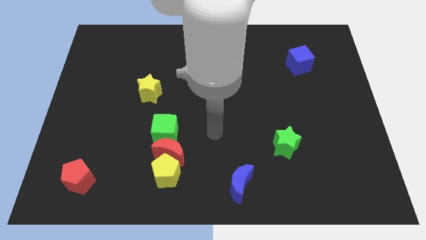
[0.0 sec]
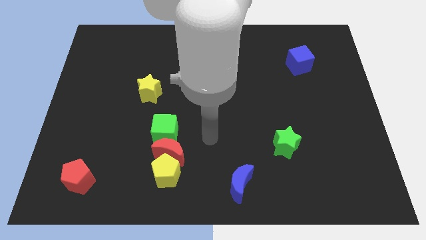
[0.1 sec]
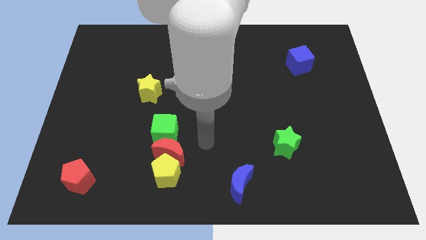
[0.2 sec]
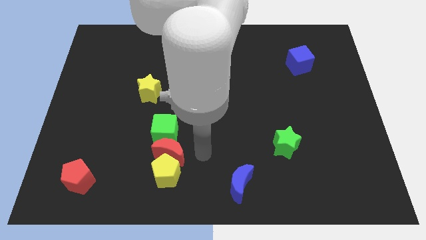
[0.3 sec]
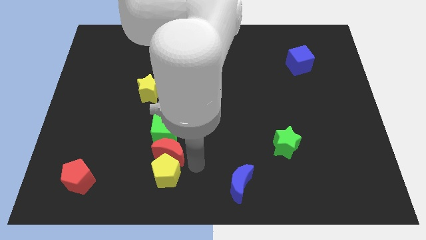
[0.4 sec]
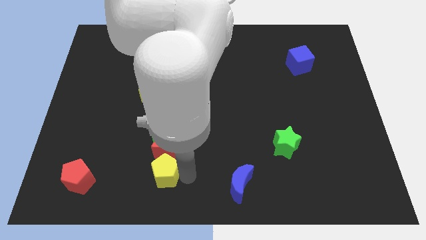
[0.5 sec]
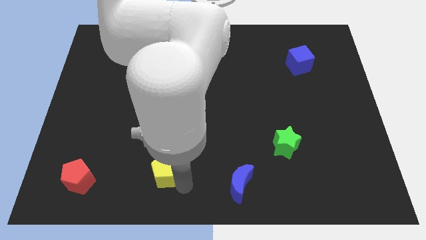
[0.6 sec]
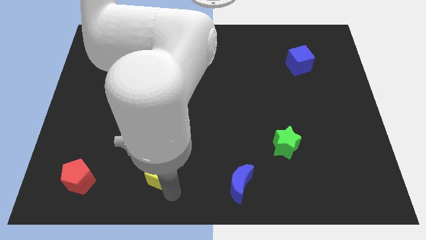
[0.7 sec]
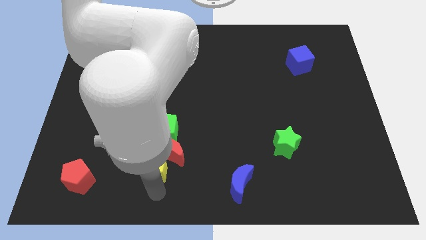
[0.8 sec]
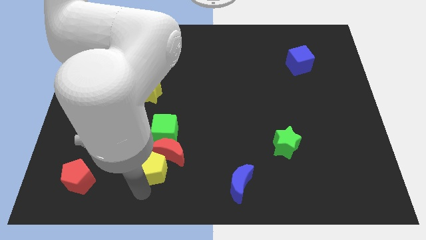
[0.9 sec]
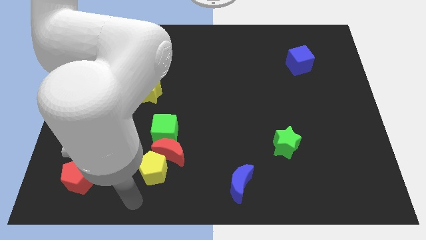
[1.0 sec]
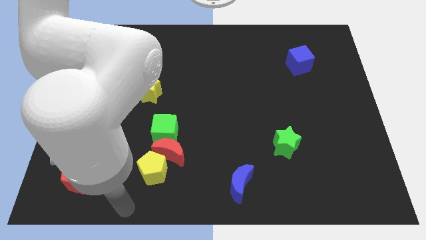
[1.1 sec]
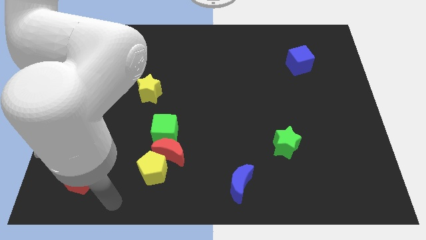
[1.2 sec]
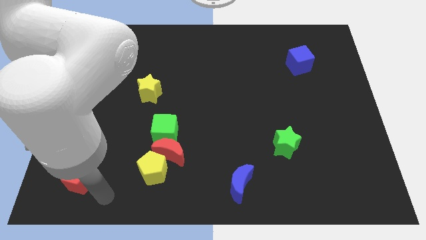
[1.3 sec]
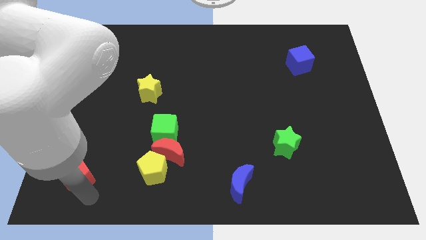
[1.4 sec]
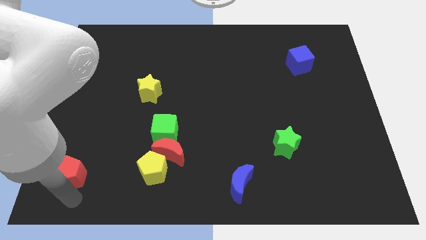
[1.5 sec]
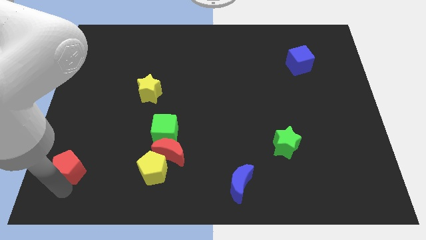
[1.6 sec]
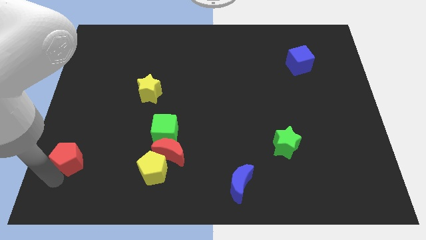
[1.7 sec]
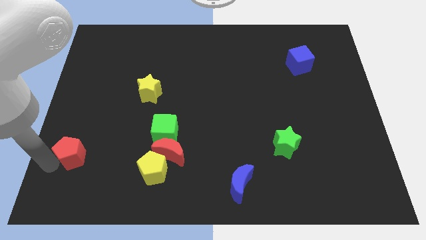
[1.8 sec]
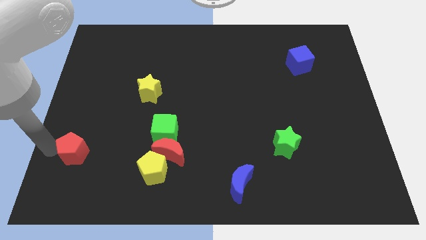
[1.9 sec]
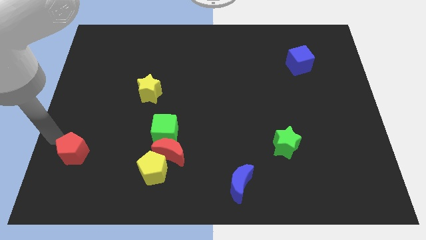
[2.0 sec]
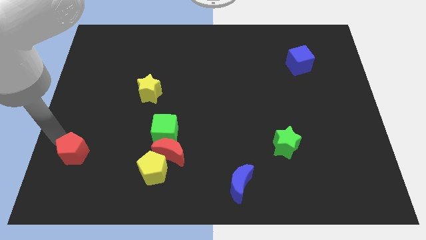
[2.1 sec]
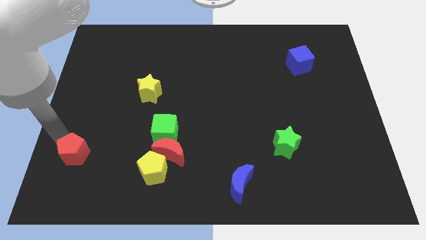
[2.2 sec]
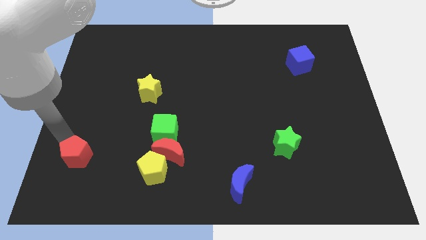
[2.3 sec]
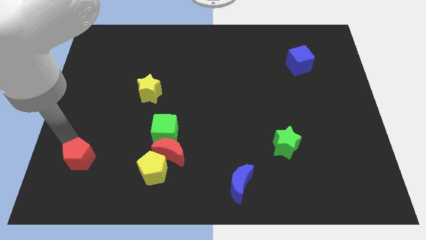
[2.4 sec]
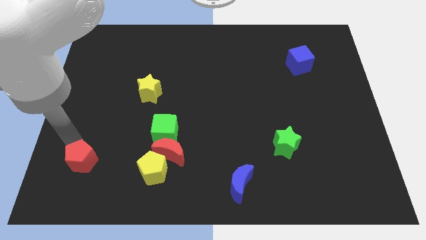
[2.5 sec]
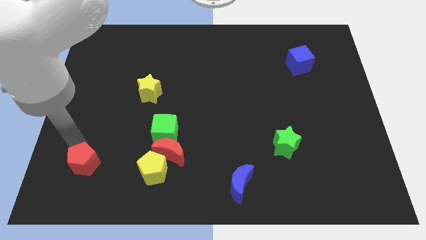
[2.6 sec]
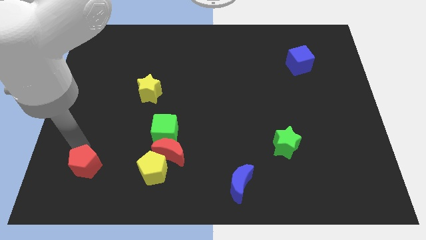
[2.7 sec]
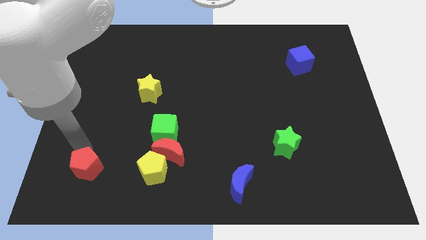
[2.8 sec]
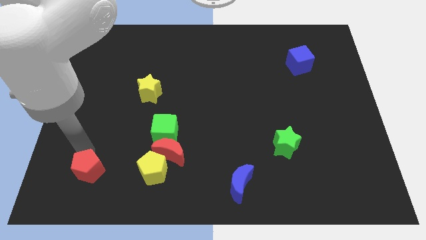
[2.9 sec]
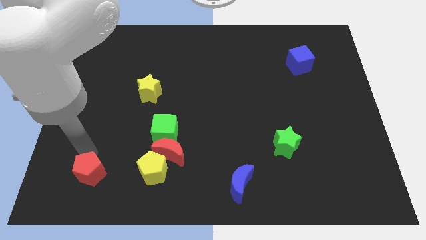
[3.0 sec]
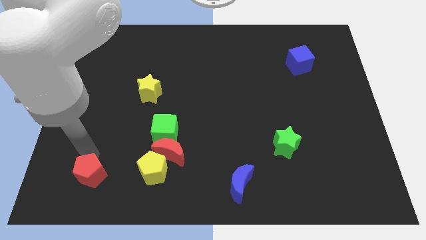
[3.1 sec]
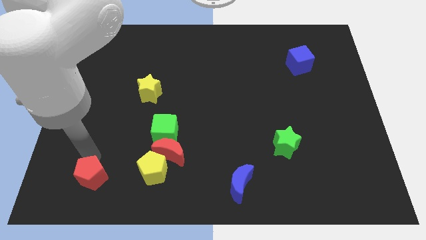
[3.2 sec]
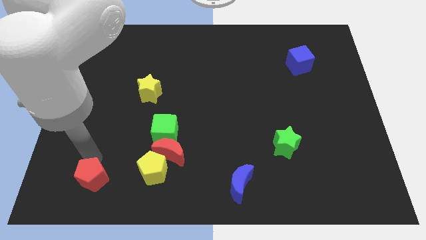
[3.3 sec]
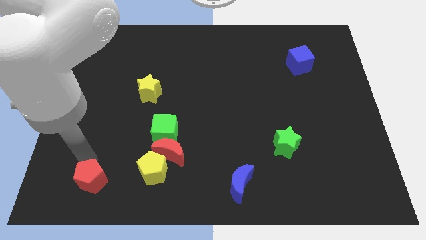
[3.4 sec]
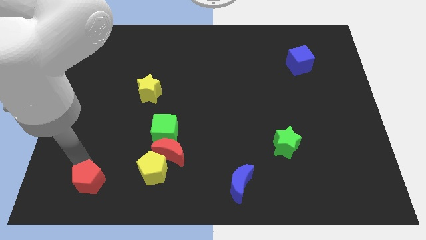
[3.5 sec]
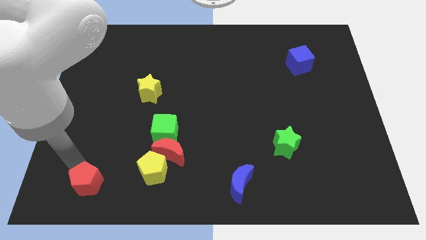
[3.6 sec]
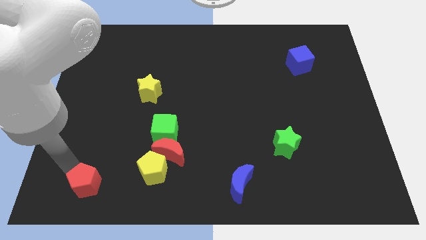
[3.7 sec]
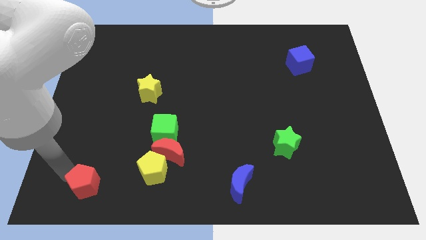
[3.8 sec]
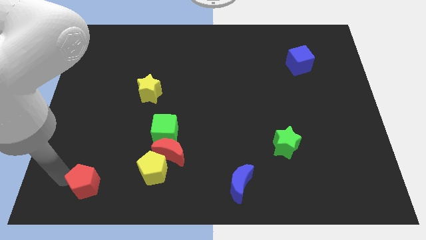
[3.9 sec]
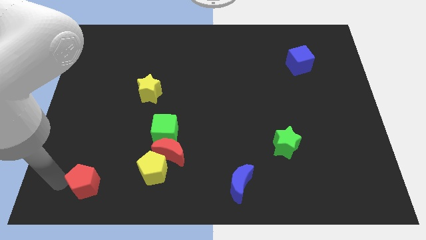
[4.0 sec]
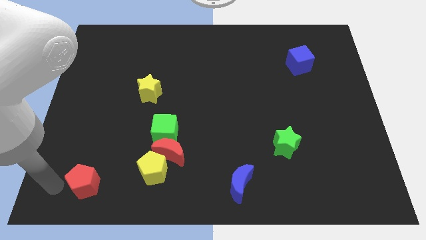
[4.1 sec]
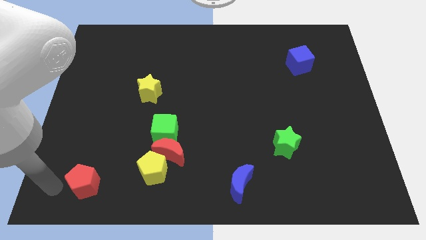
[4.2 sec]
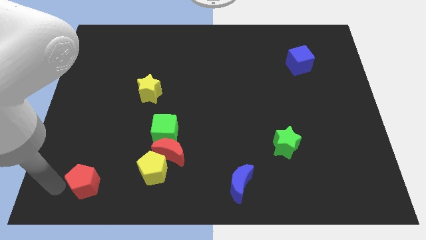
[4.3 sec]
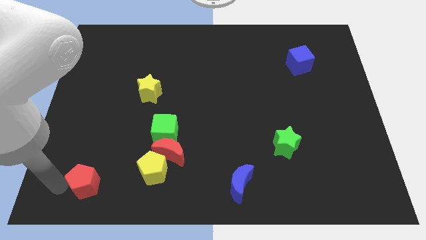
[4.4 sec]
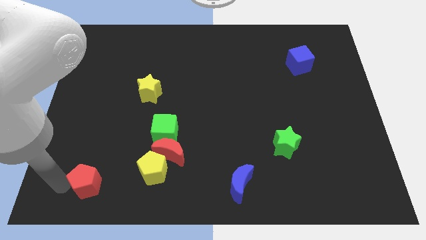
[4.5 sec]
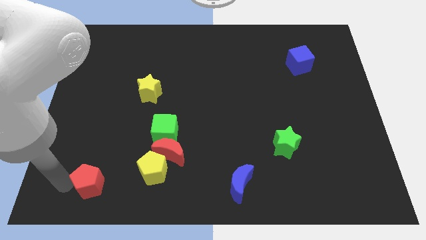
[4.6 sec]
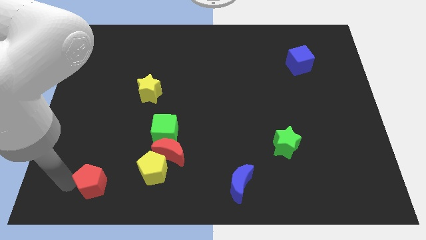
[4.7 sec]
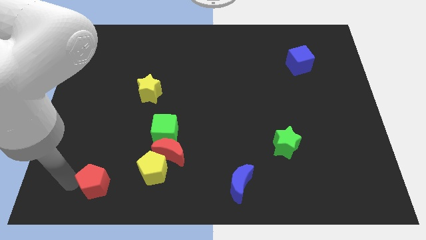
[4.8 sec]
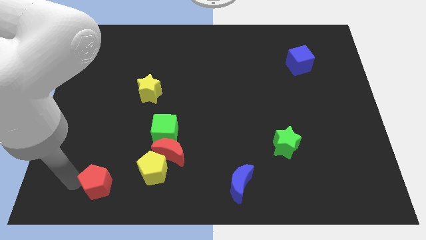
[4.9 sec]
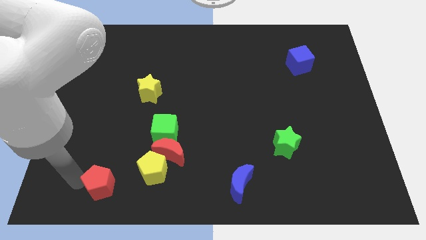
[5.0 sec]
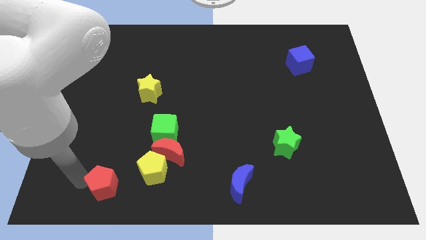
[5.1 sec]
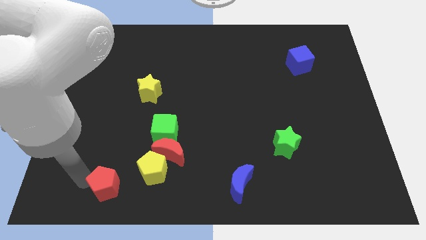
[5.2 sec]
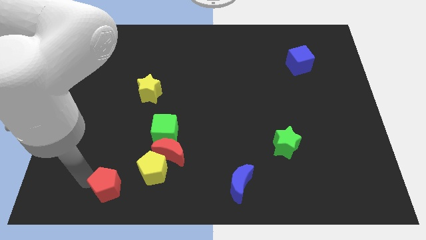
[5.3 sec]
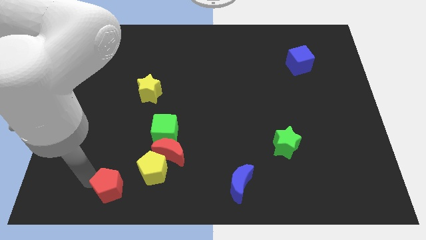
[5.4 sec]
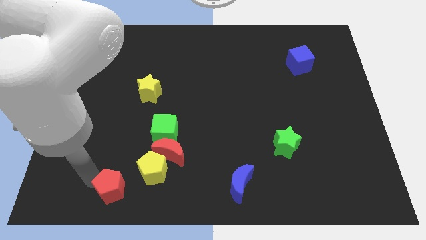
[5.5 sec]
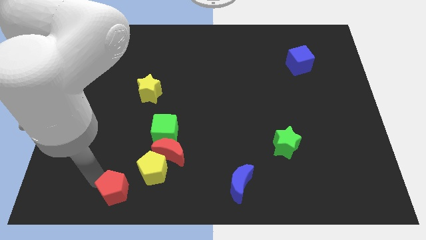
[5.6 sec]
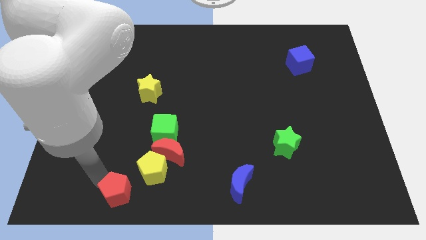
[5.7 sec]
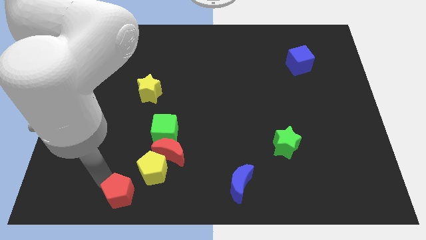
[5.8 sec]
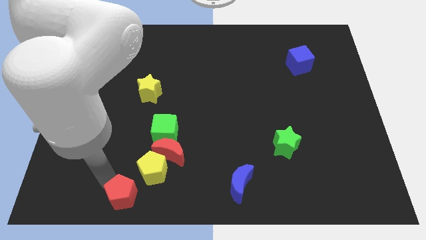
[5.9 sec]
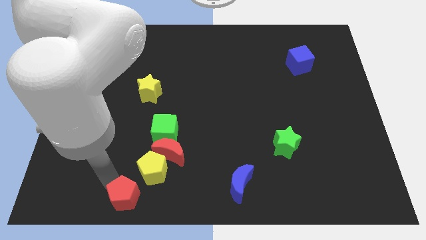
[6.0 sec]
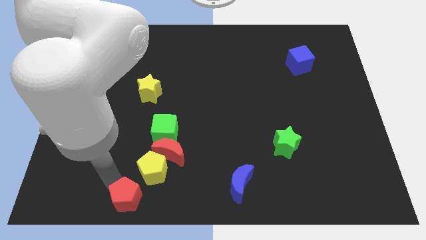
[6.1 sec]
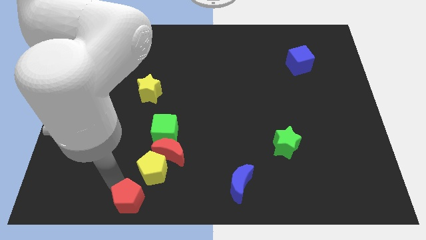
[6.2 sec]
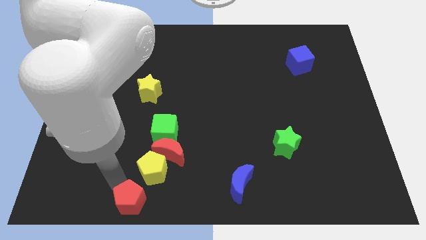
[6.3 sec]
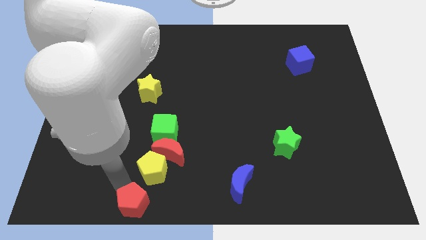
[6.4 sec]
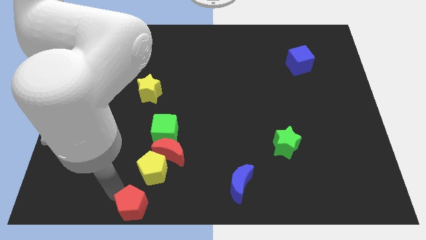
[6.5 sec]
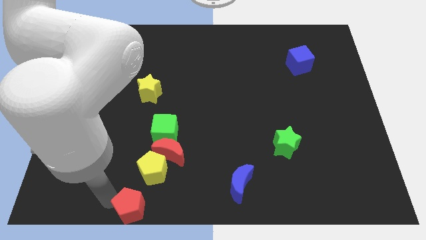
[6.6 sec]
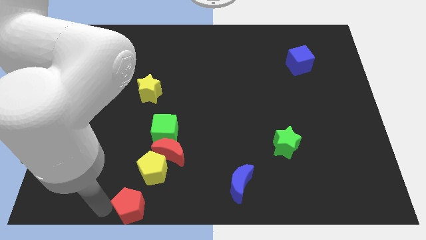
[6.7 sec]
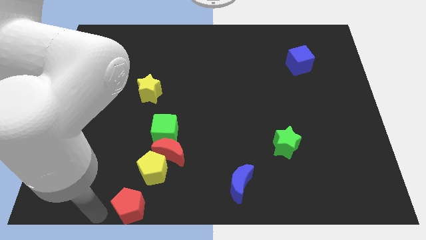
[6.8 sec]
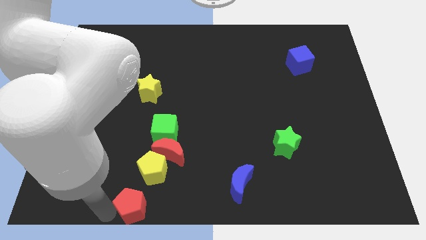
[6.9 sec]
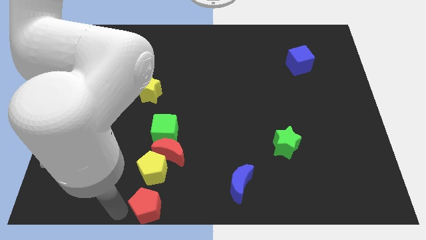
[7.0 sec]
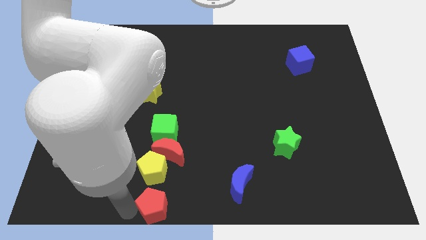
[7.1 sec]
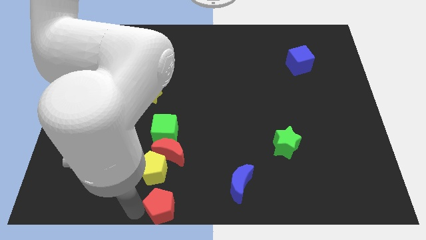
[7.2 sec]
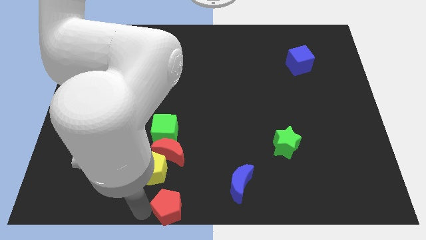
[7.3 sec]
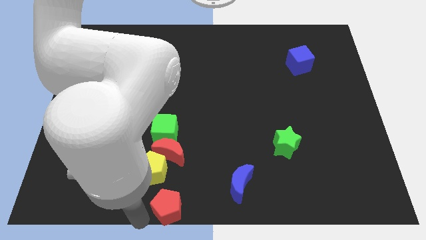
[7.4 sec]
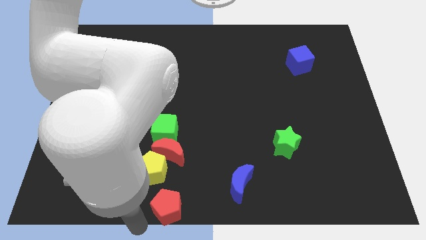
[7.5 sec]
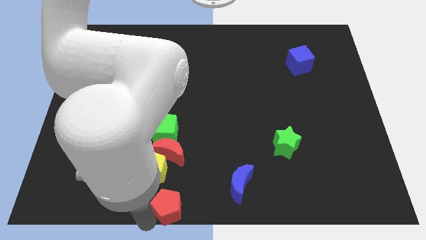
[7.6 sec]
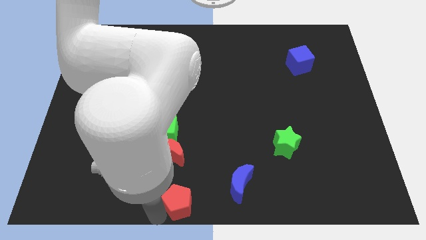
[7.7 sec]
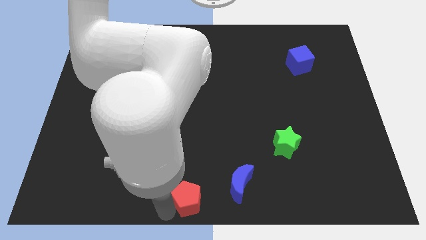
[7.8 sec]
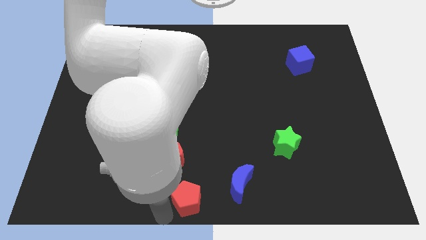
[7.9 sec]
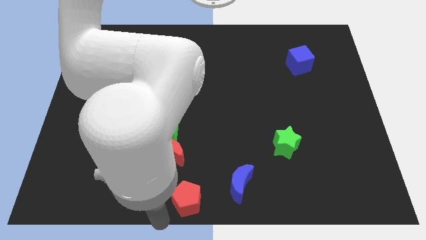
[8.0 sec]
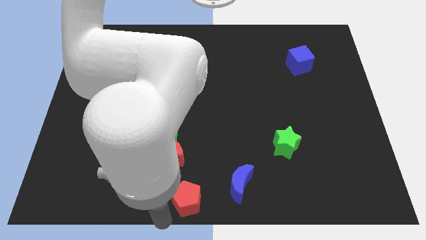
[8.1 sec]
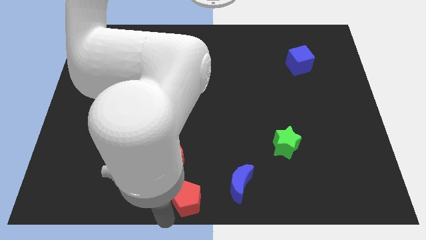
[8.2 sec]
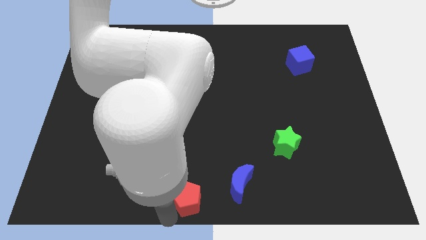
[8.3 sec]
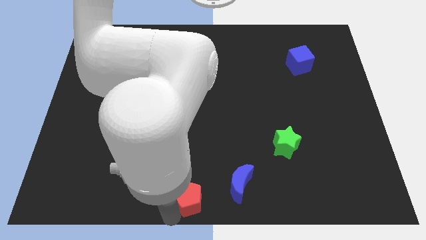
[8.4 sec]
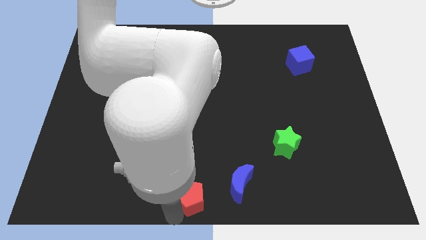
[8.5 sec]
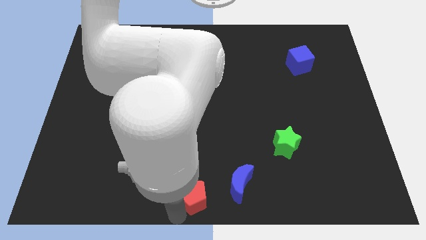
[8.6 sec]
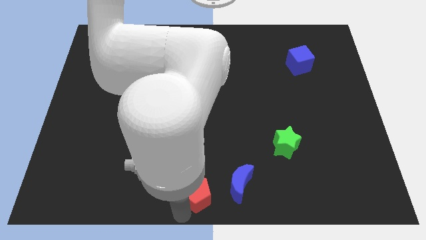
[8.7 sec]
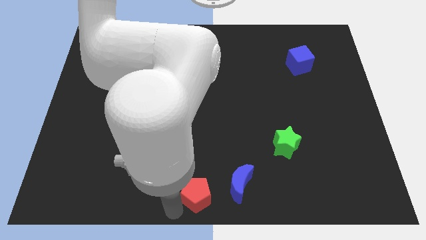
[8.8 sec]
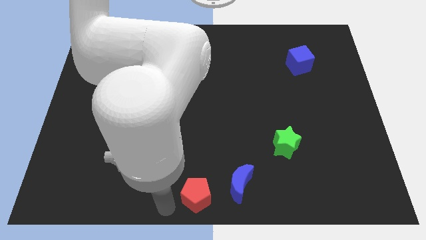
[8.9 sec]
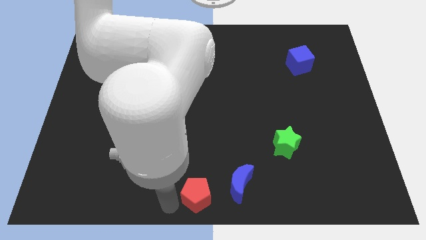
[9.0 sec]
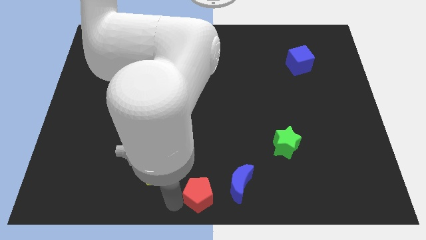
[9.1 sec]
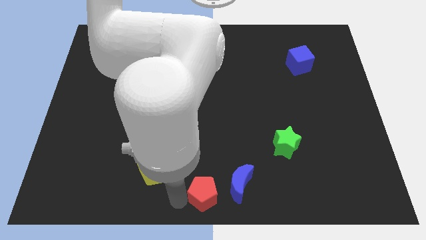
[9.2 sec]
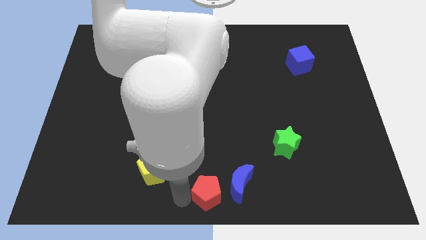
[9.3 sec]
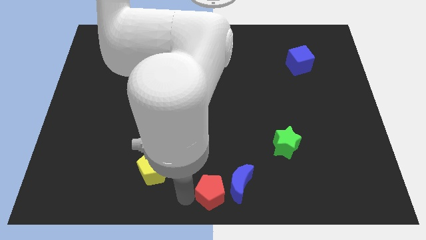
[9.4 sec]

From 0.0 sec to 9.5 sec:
put the red pentagon next to the blue moon
